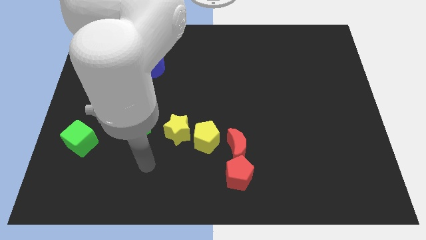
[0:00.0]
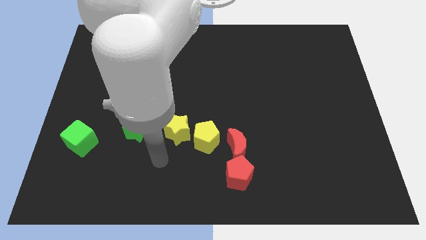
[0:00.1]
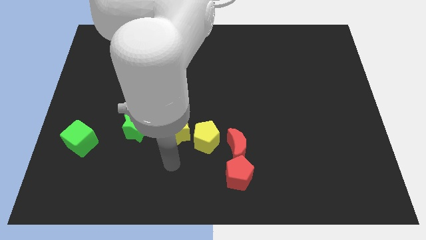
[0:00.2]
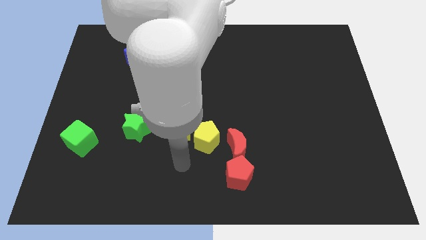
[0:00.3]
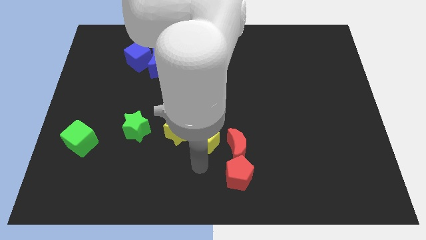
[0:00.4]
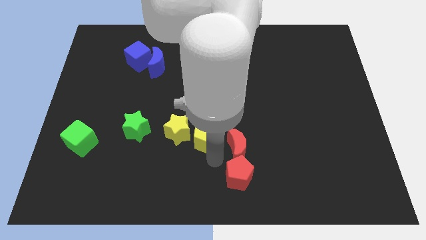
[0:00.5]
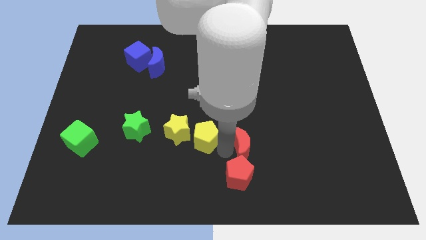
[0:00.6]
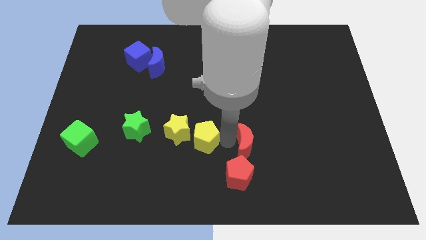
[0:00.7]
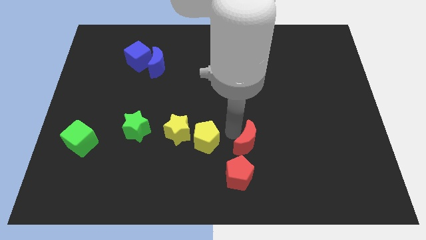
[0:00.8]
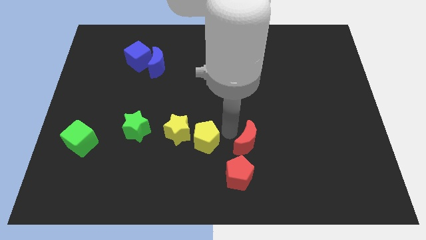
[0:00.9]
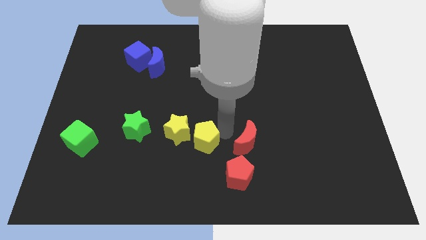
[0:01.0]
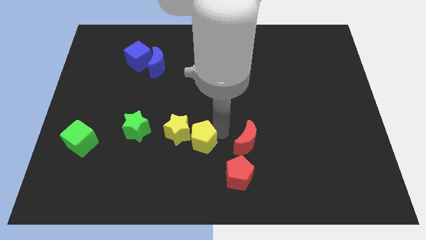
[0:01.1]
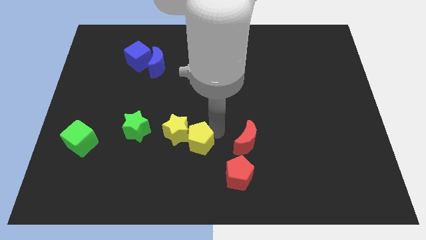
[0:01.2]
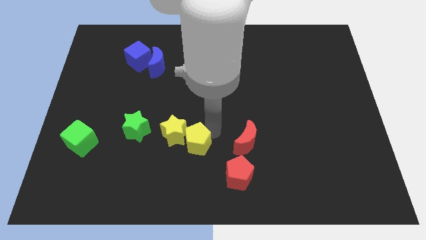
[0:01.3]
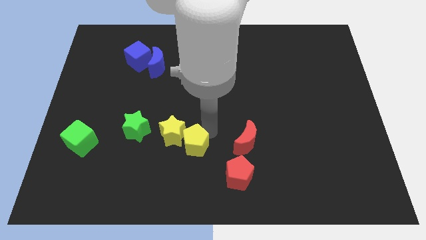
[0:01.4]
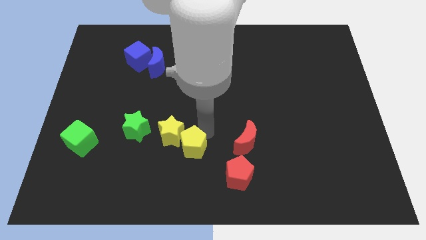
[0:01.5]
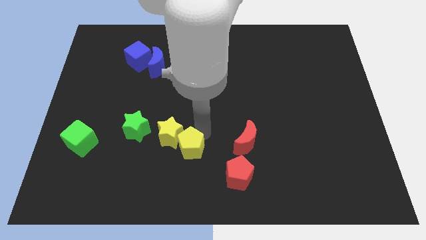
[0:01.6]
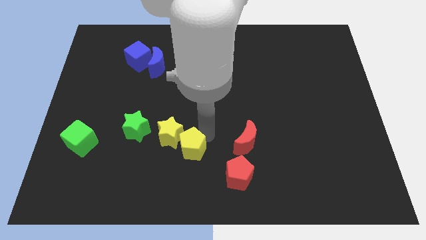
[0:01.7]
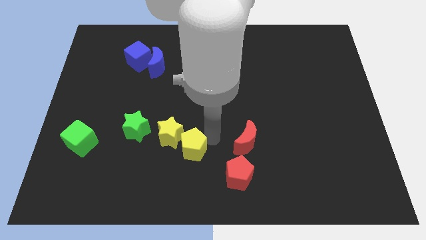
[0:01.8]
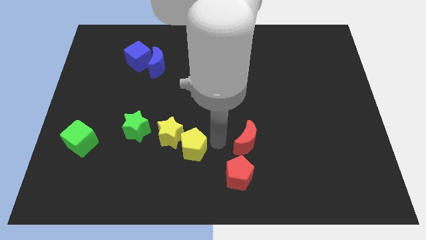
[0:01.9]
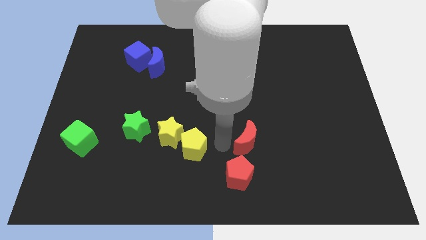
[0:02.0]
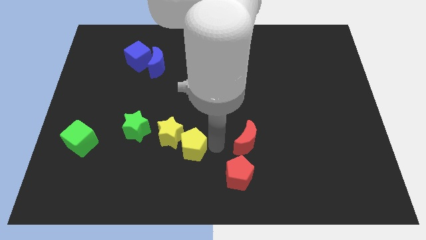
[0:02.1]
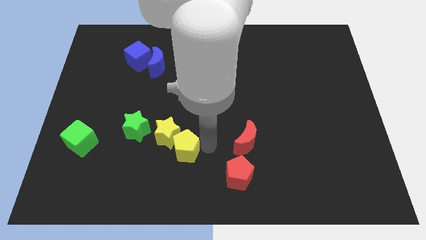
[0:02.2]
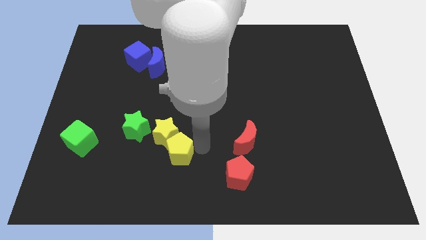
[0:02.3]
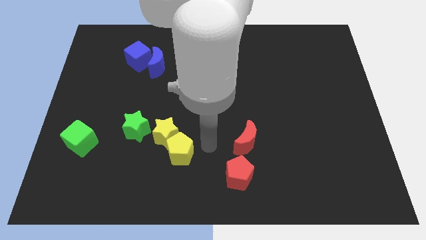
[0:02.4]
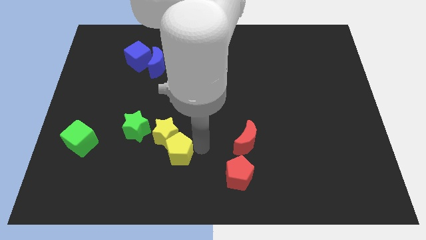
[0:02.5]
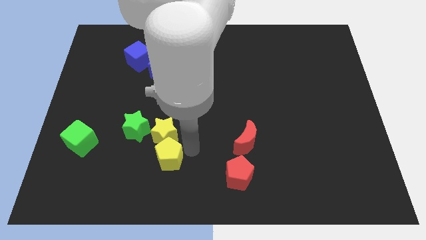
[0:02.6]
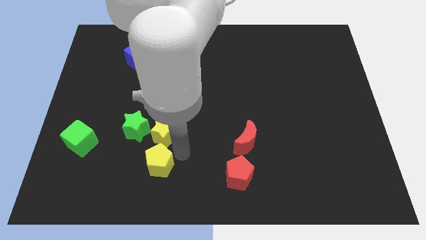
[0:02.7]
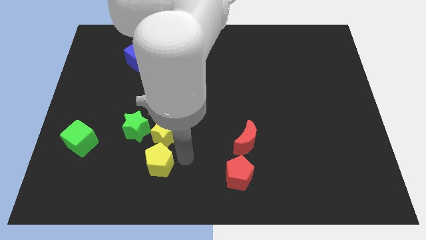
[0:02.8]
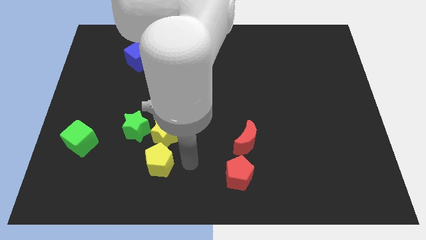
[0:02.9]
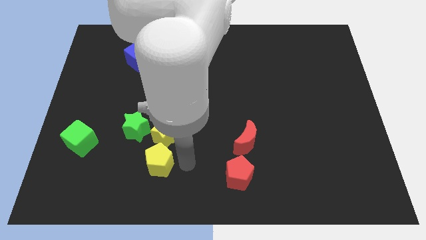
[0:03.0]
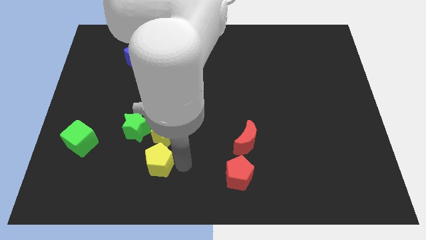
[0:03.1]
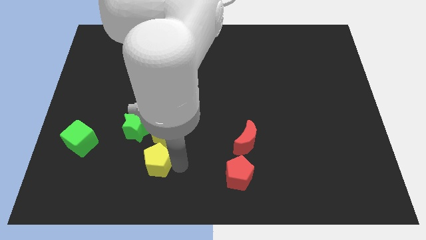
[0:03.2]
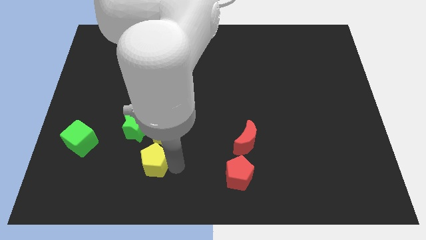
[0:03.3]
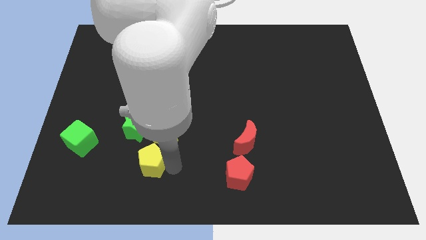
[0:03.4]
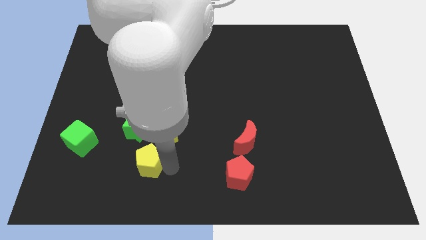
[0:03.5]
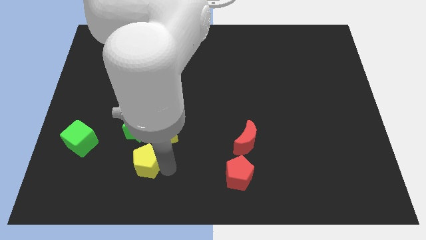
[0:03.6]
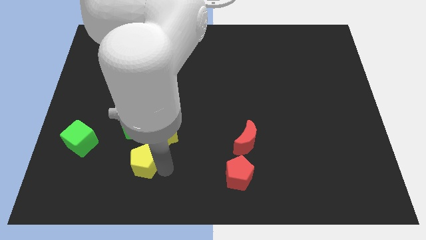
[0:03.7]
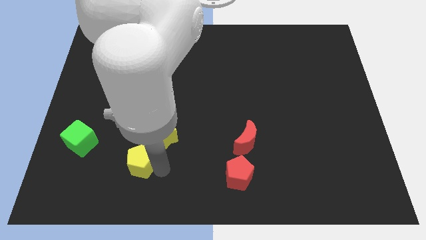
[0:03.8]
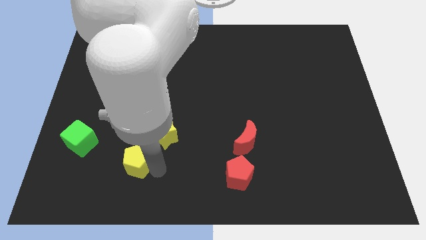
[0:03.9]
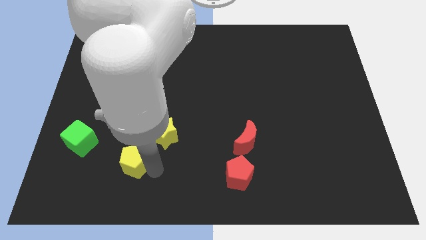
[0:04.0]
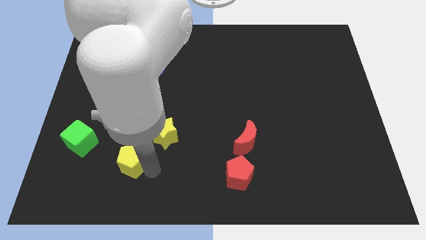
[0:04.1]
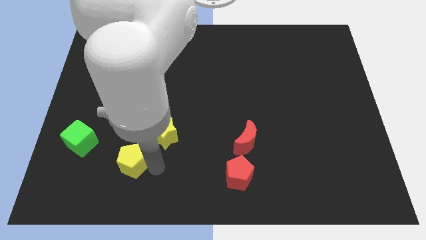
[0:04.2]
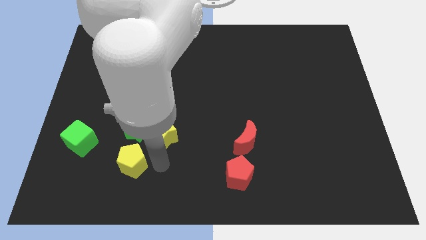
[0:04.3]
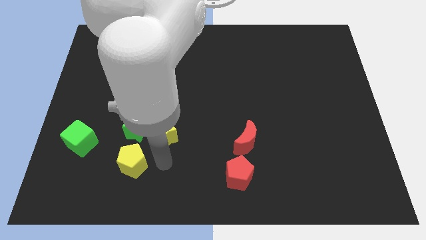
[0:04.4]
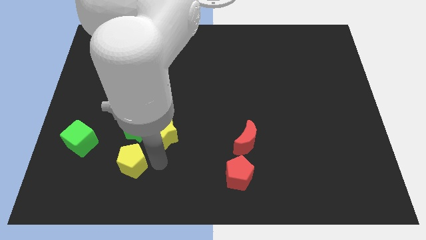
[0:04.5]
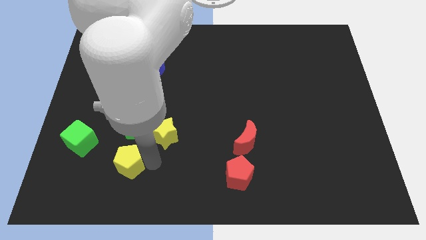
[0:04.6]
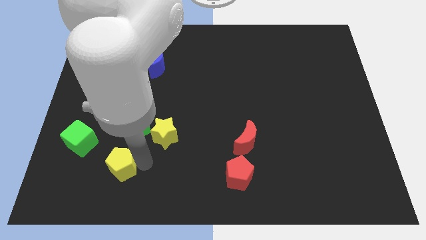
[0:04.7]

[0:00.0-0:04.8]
move the yellow pentagon to the bottom right of the green cube

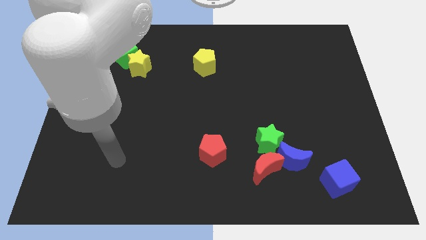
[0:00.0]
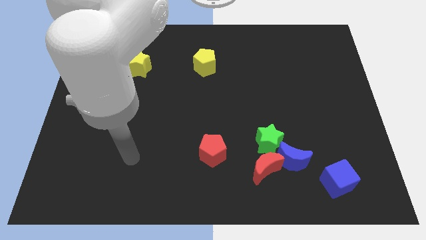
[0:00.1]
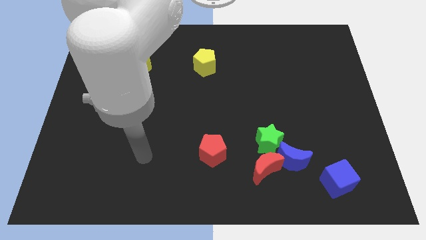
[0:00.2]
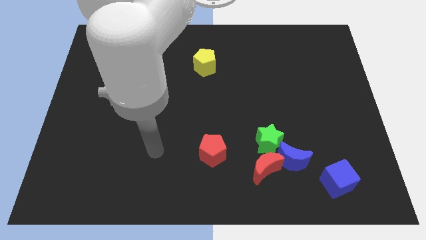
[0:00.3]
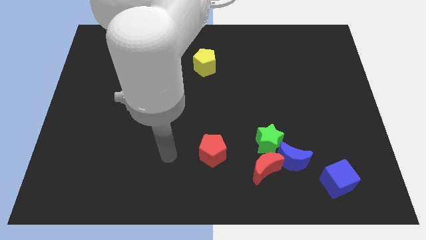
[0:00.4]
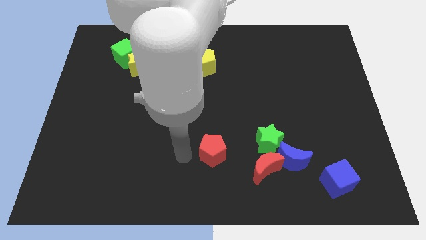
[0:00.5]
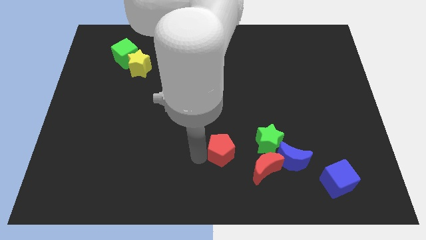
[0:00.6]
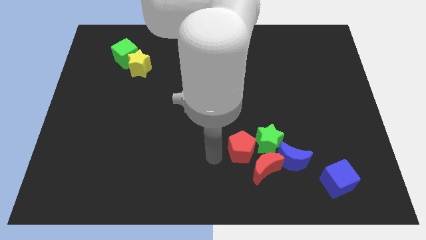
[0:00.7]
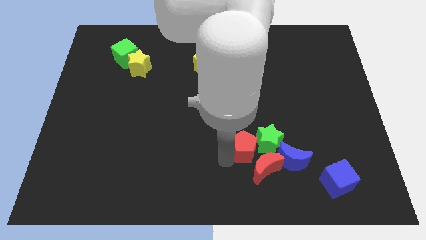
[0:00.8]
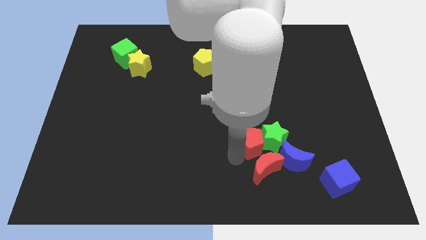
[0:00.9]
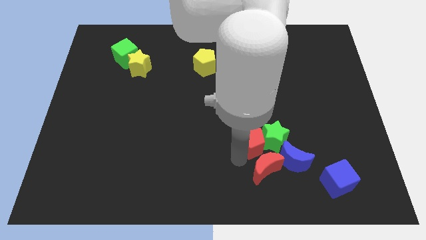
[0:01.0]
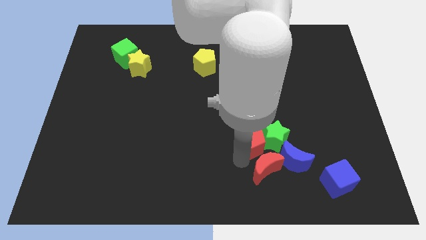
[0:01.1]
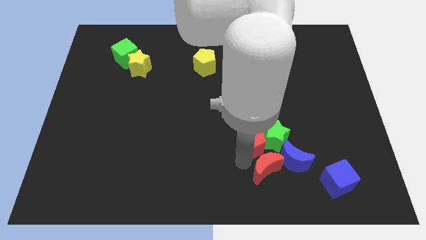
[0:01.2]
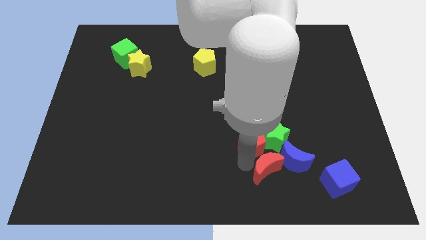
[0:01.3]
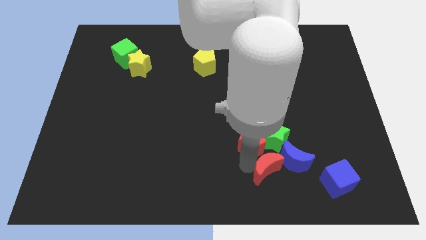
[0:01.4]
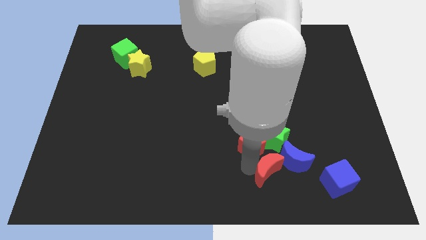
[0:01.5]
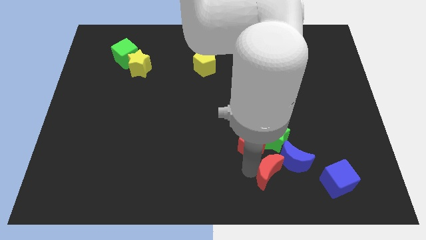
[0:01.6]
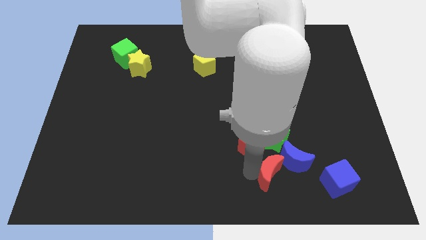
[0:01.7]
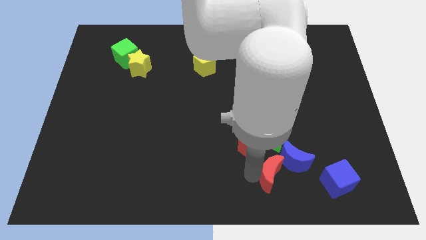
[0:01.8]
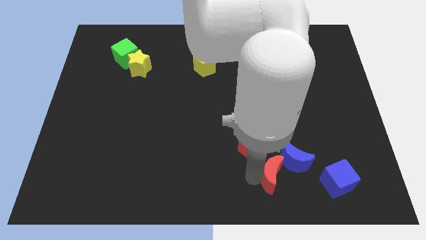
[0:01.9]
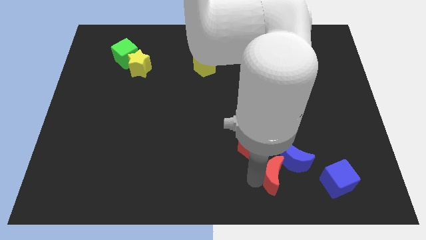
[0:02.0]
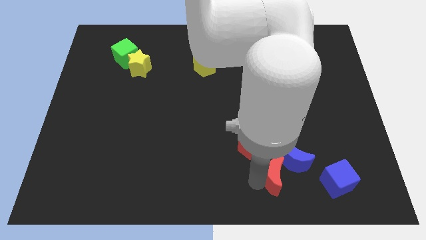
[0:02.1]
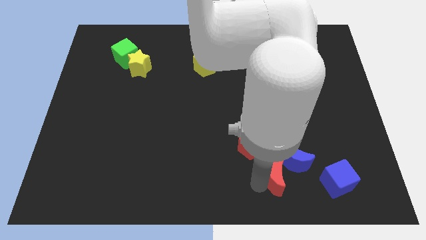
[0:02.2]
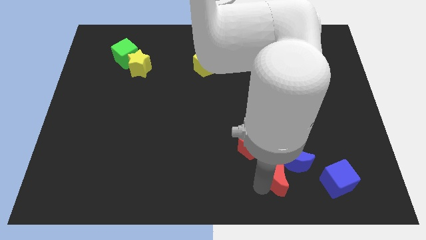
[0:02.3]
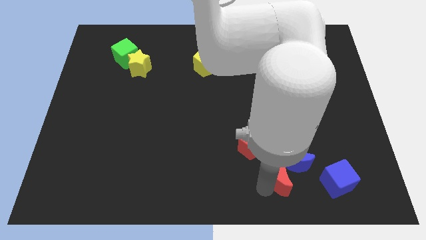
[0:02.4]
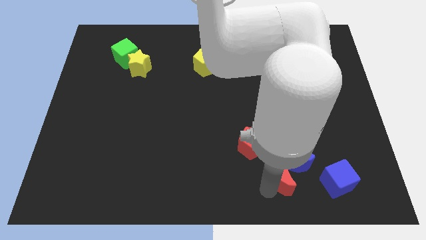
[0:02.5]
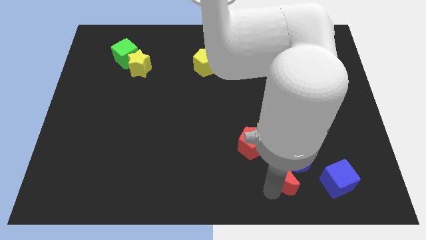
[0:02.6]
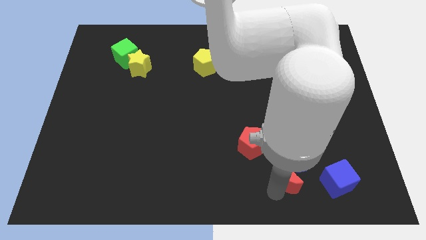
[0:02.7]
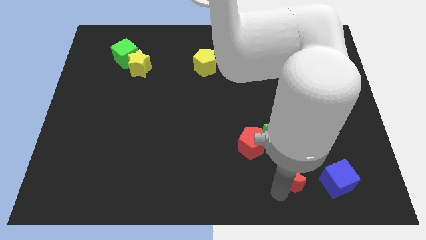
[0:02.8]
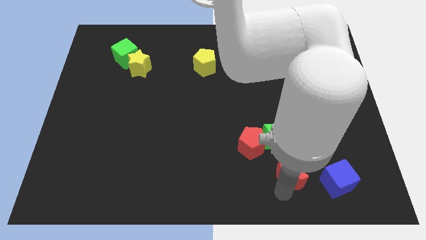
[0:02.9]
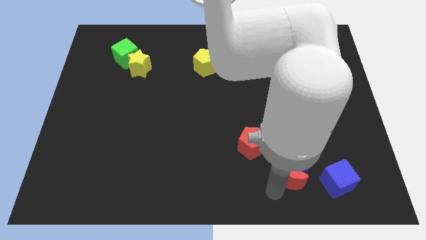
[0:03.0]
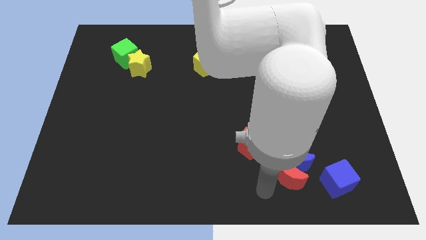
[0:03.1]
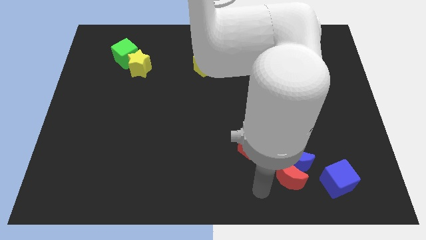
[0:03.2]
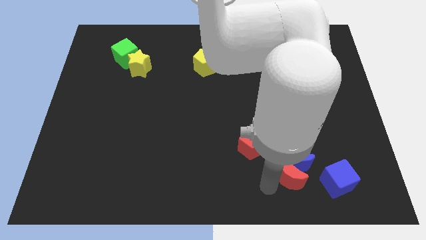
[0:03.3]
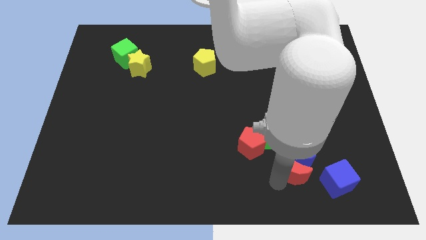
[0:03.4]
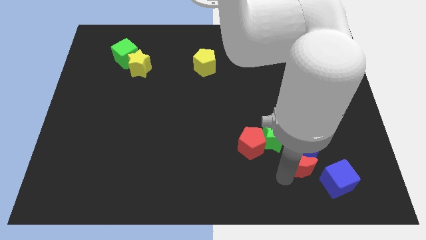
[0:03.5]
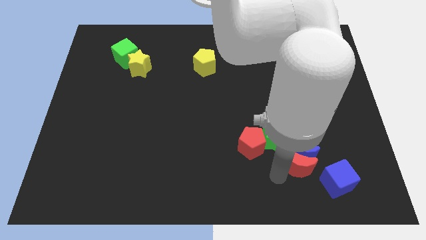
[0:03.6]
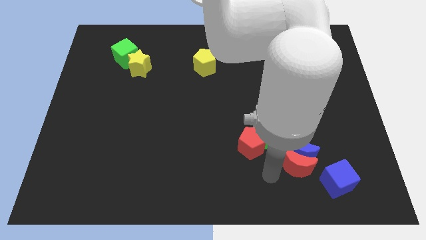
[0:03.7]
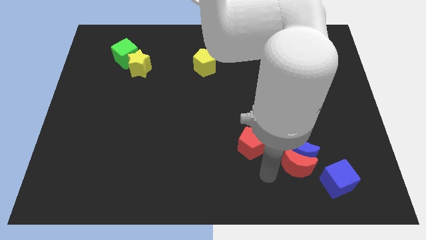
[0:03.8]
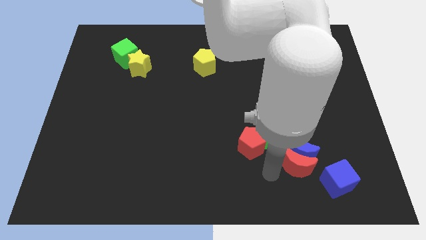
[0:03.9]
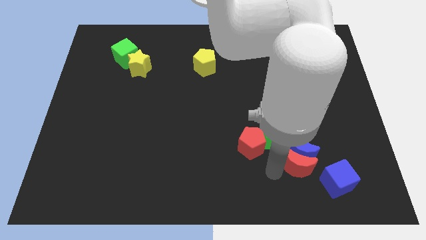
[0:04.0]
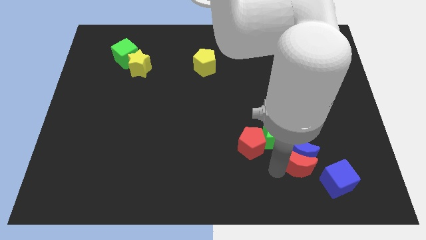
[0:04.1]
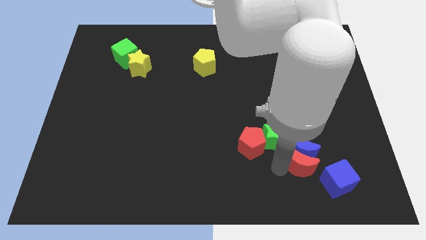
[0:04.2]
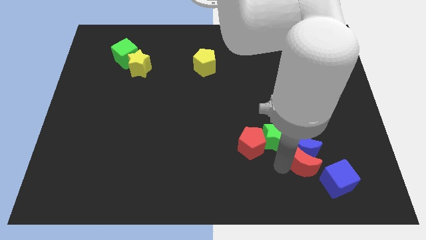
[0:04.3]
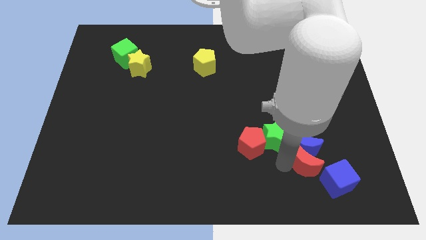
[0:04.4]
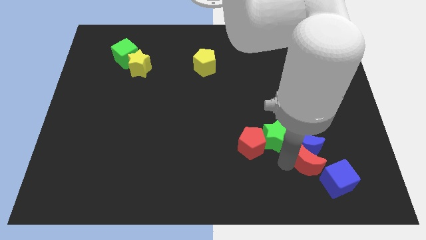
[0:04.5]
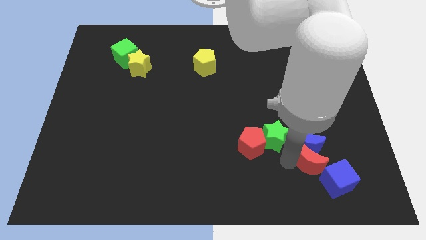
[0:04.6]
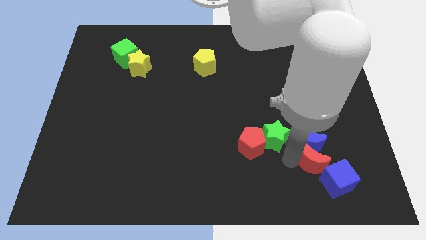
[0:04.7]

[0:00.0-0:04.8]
put the red moon to the top side of the blue cube
